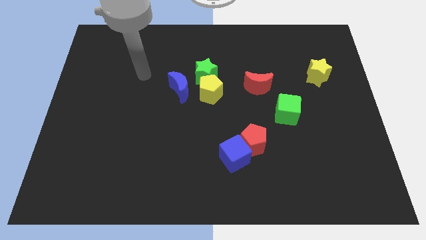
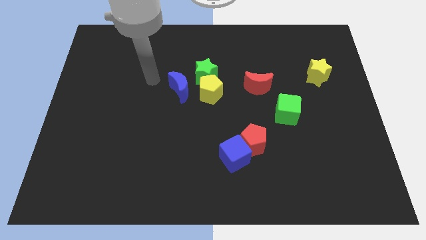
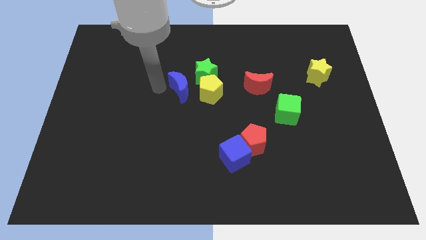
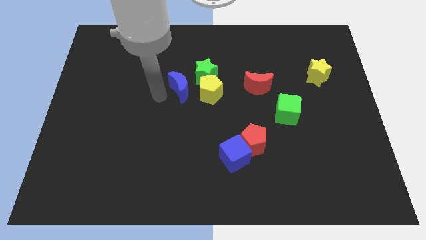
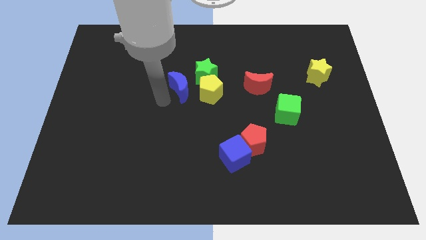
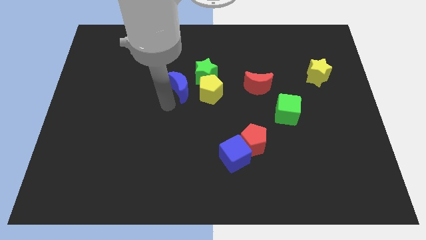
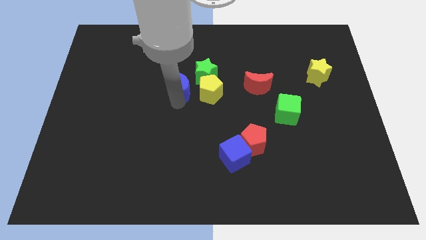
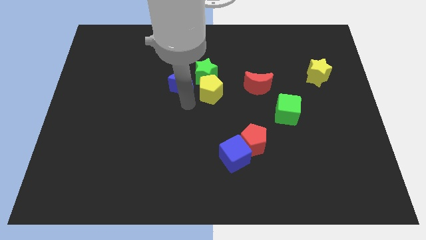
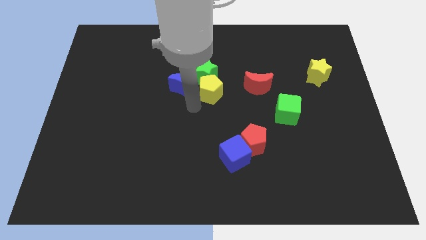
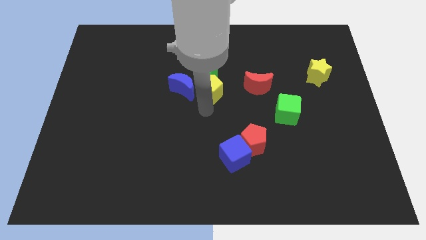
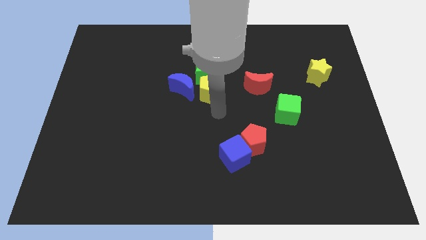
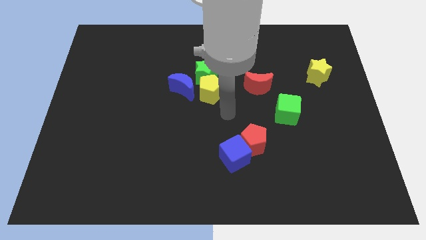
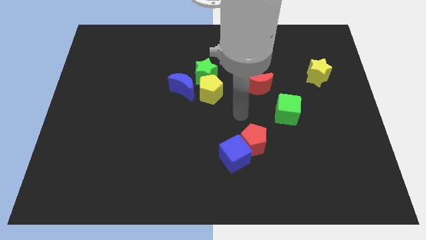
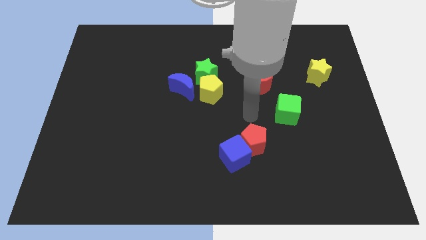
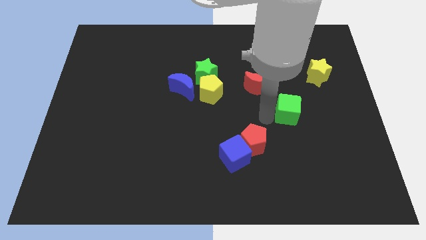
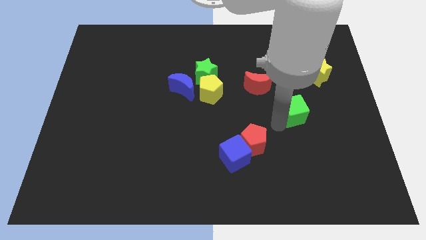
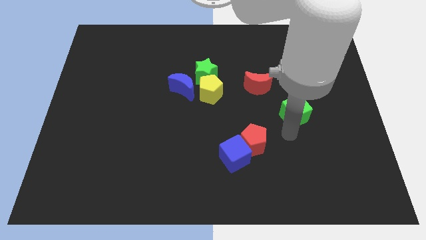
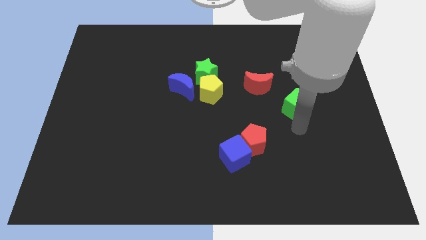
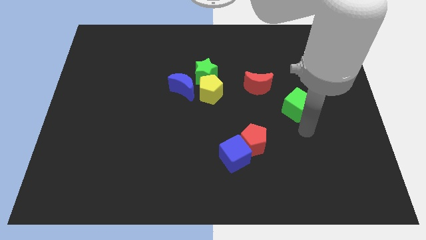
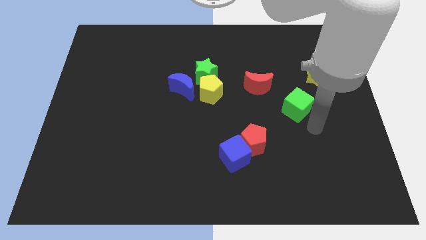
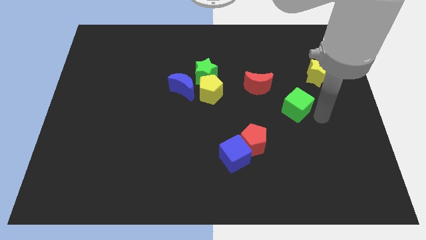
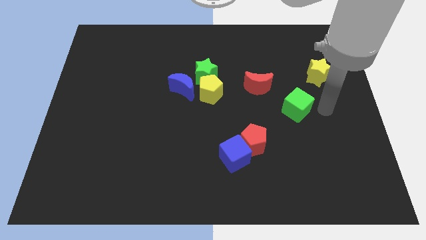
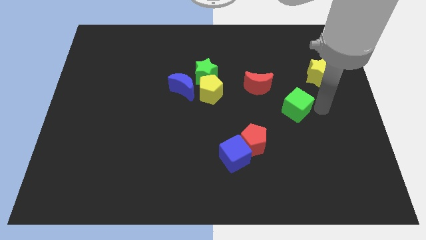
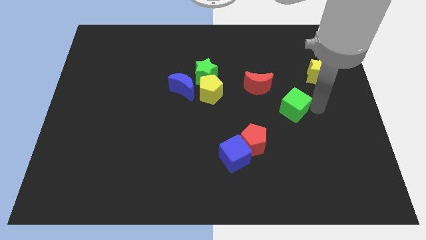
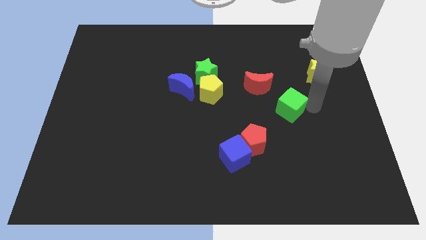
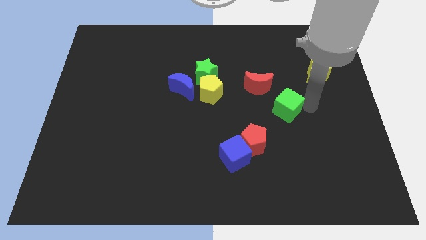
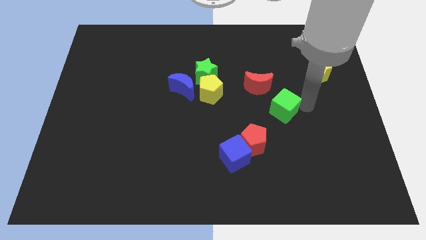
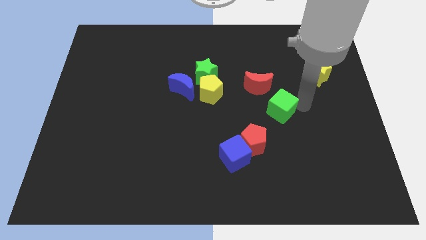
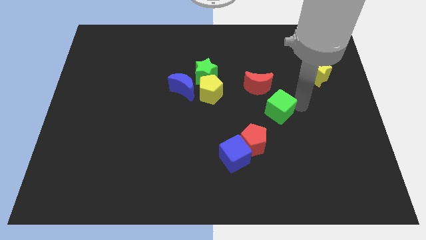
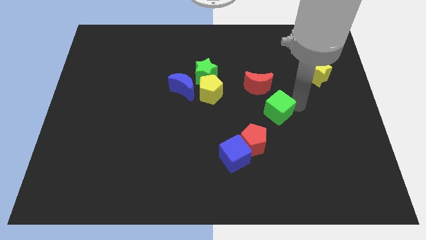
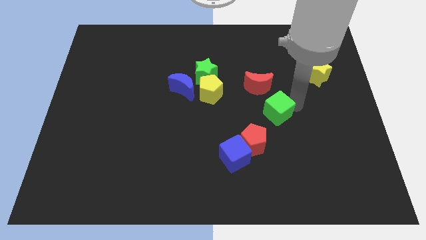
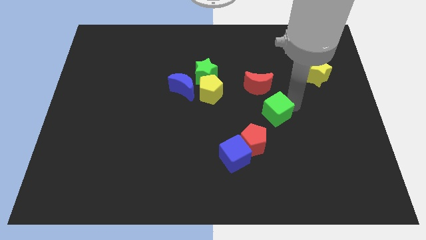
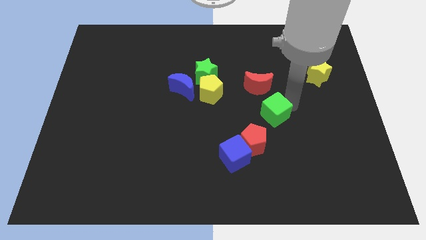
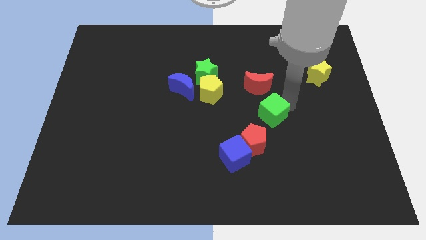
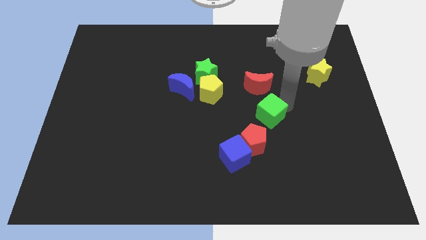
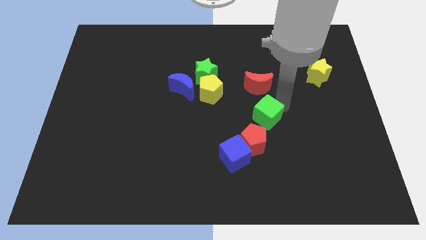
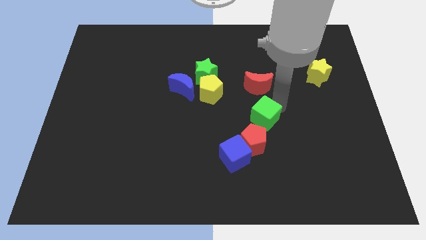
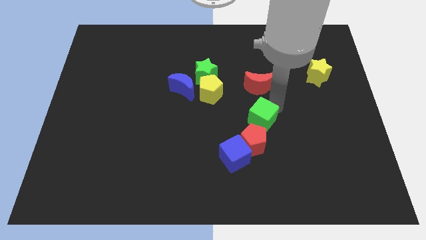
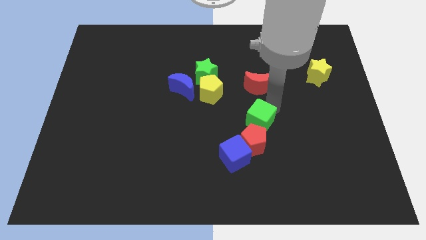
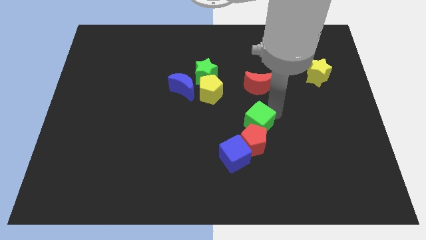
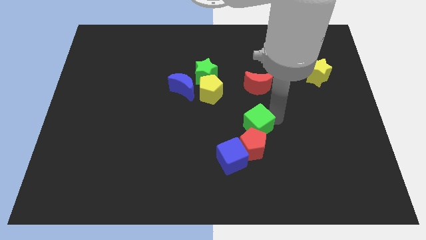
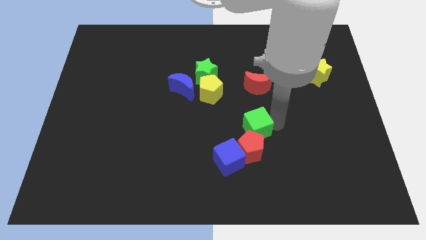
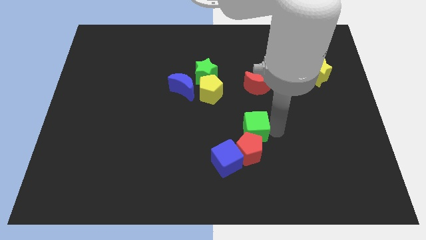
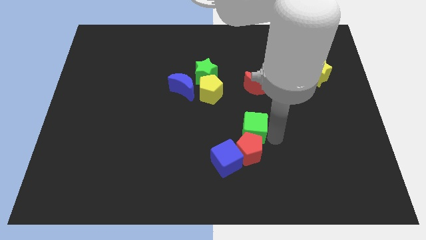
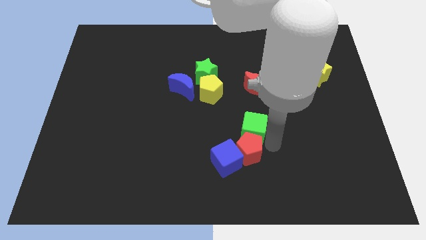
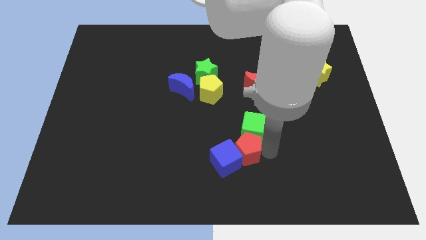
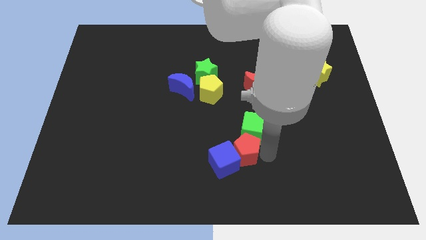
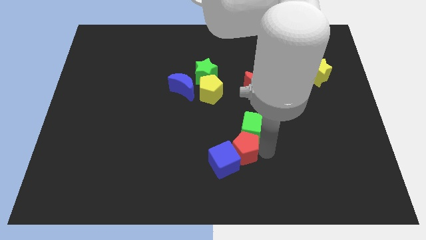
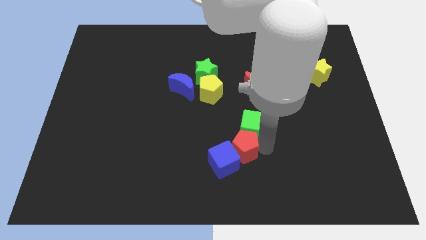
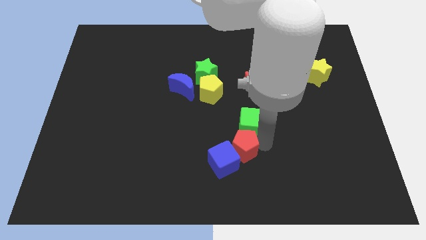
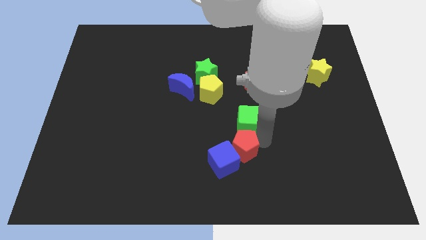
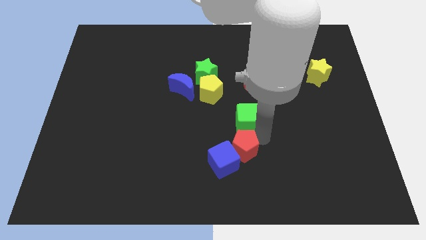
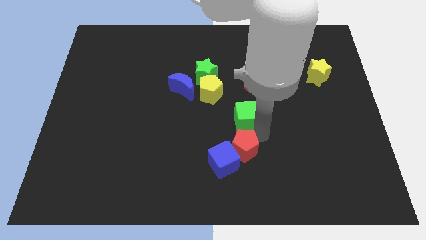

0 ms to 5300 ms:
slide the green cube to the bottom left side of the red moon

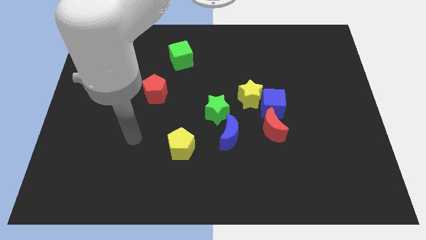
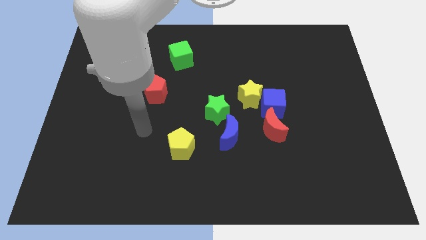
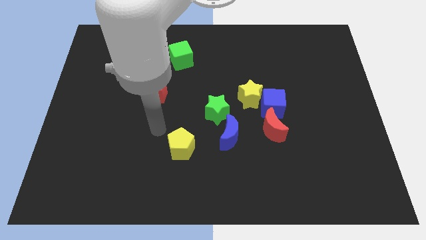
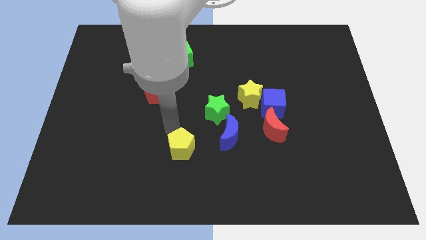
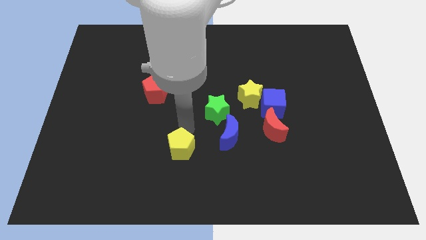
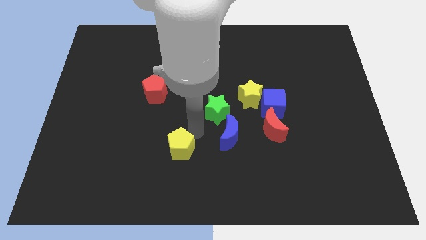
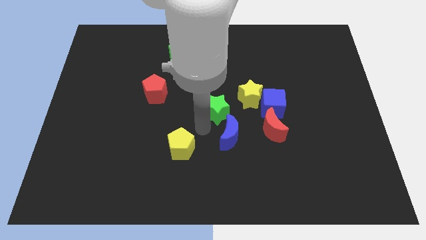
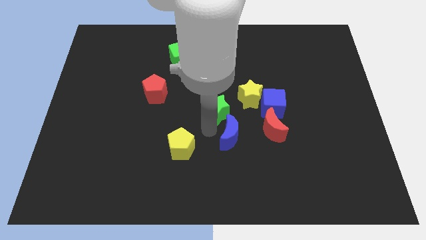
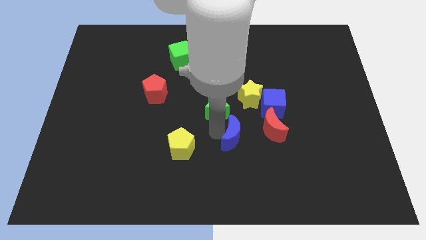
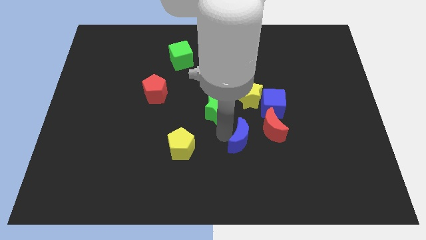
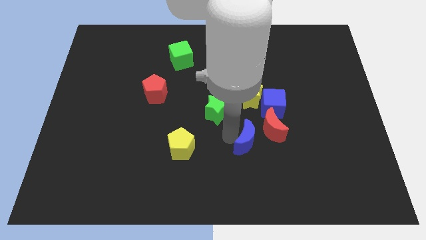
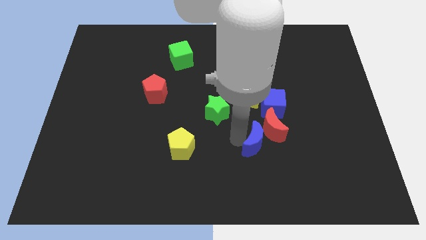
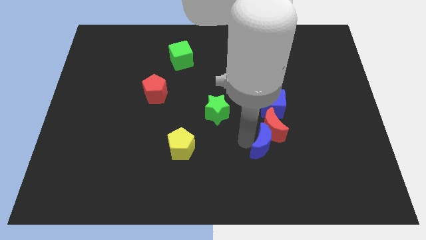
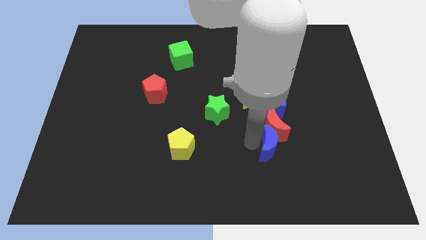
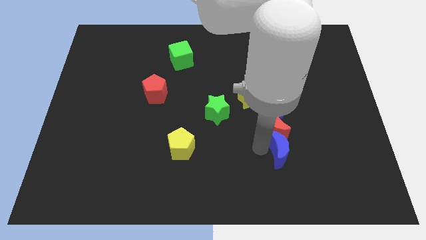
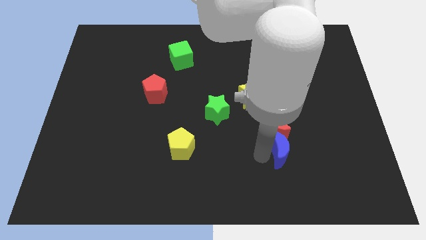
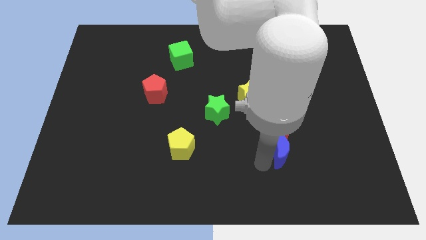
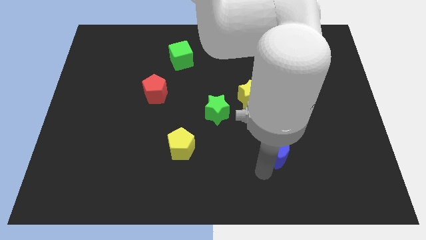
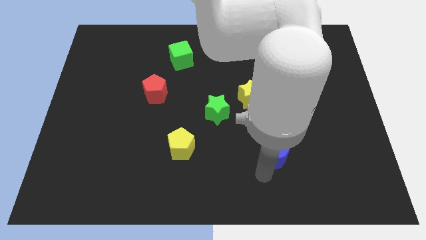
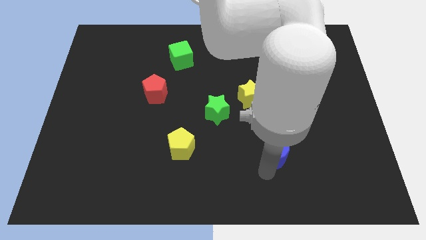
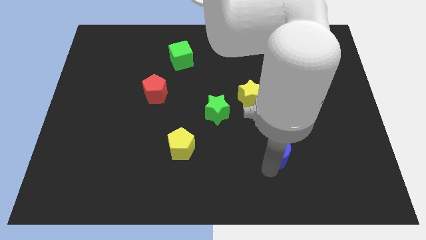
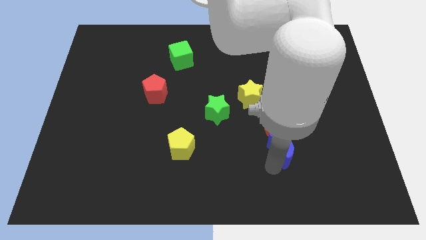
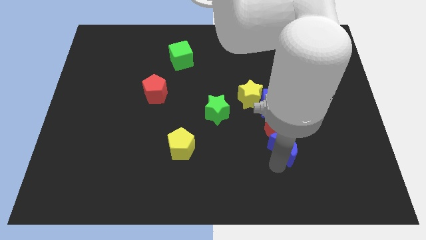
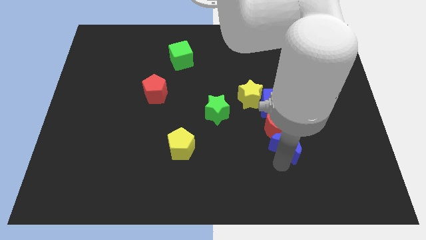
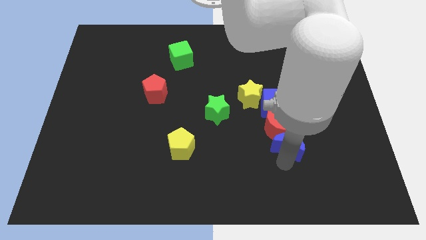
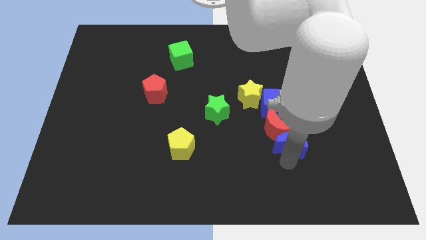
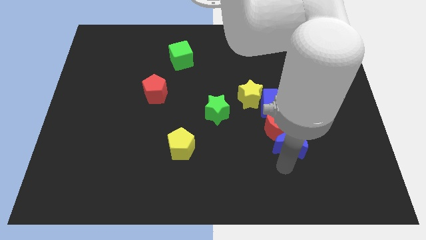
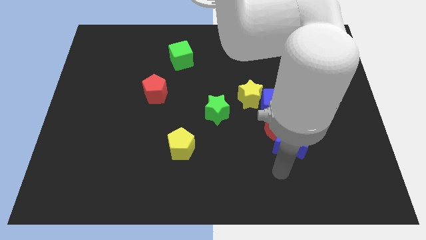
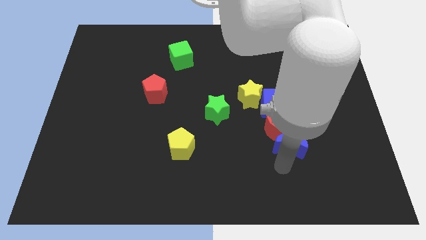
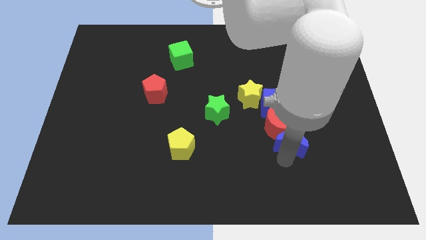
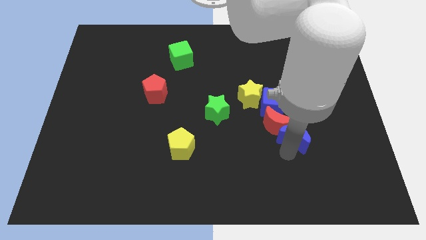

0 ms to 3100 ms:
push the blue moon diagonally down and to the right of the blue cube
